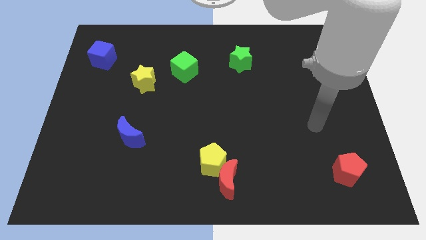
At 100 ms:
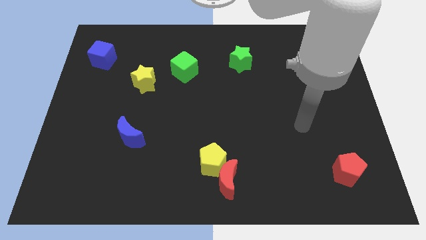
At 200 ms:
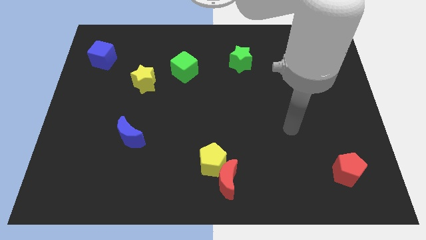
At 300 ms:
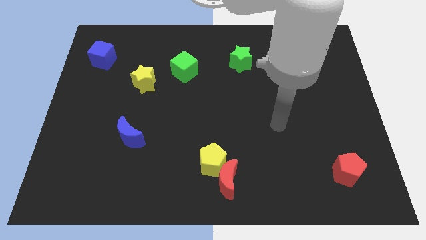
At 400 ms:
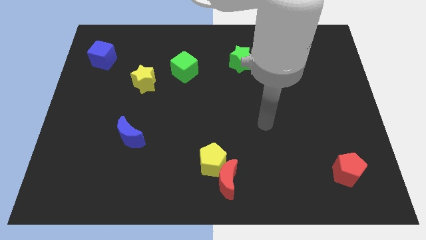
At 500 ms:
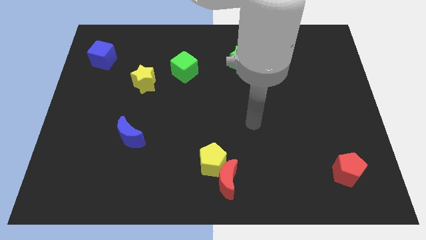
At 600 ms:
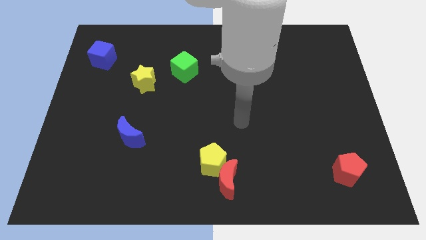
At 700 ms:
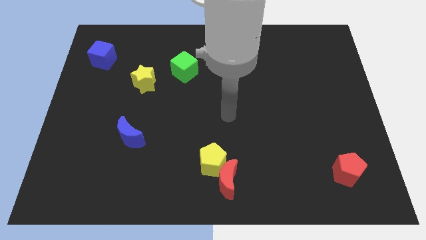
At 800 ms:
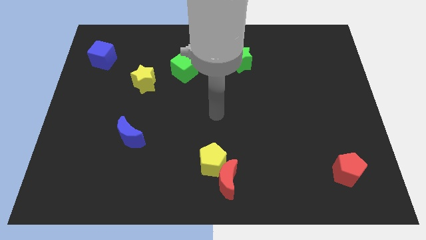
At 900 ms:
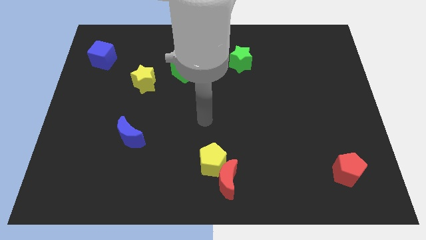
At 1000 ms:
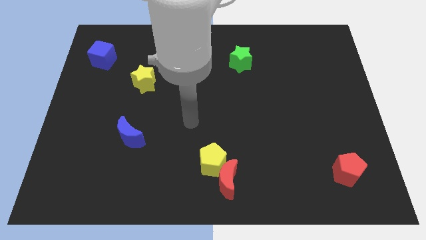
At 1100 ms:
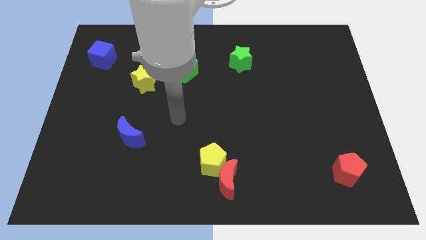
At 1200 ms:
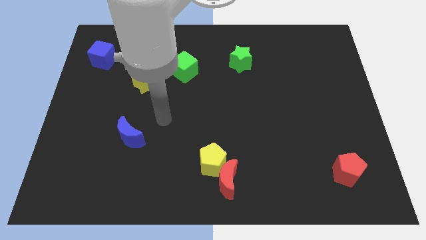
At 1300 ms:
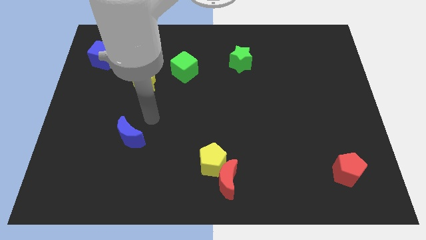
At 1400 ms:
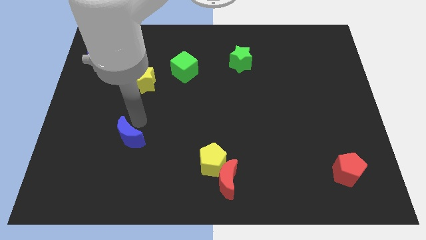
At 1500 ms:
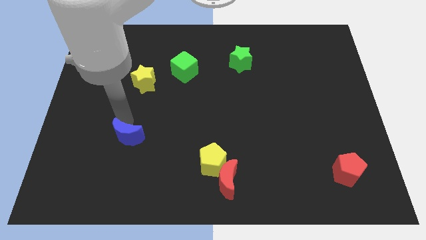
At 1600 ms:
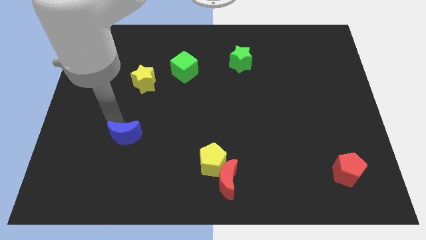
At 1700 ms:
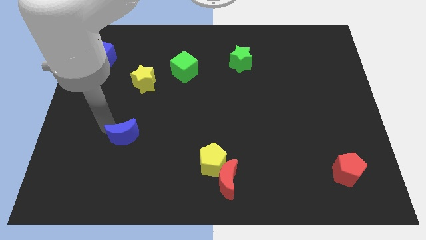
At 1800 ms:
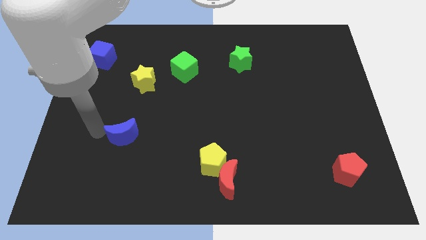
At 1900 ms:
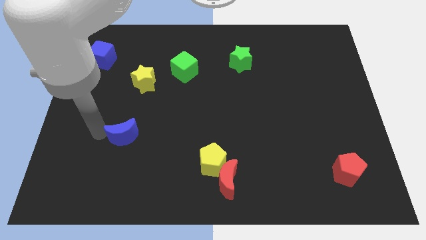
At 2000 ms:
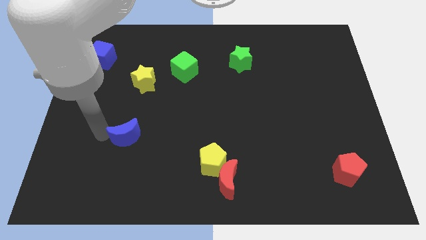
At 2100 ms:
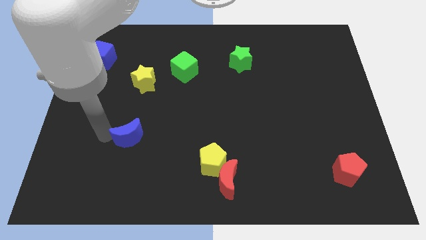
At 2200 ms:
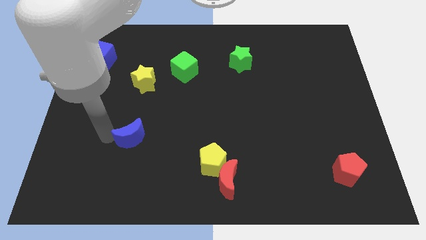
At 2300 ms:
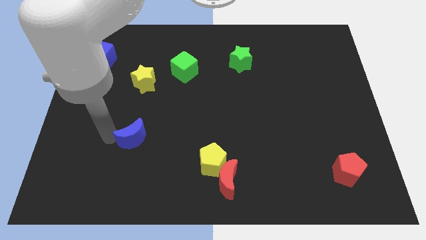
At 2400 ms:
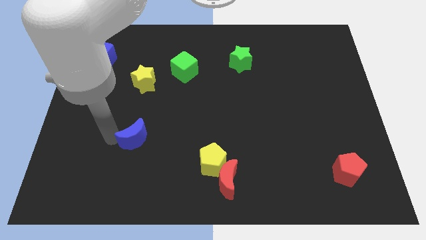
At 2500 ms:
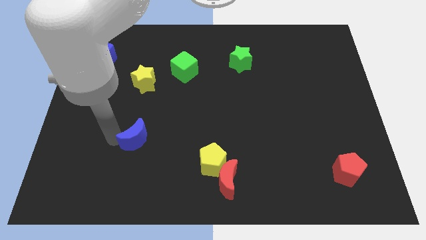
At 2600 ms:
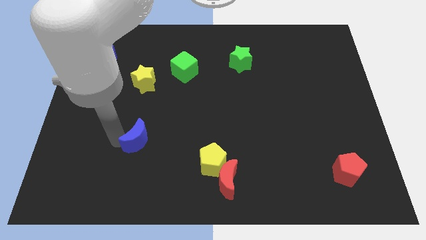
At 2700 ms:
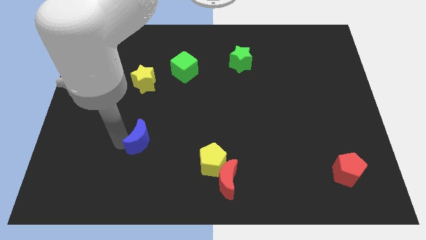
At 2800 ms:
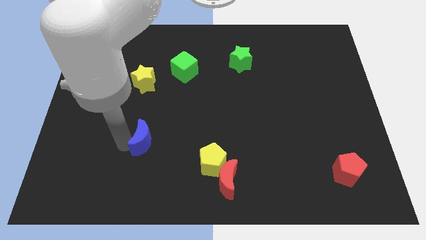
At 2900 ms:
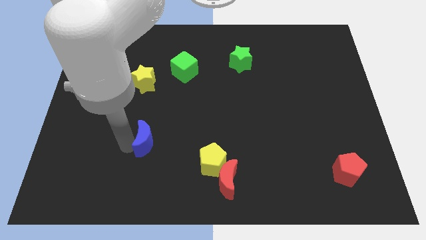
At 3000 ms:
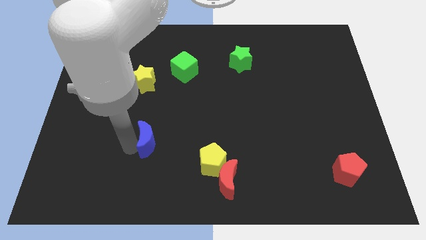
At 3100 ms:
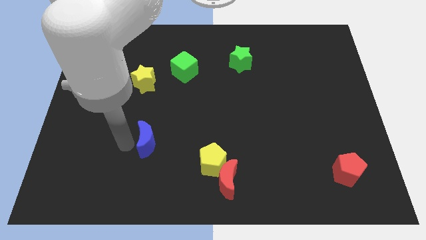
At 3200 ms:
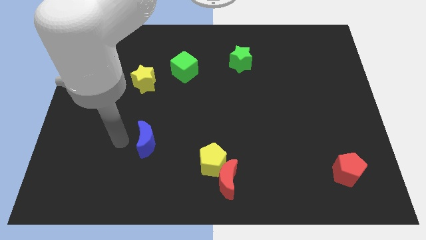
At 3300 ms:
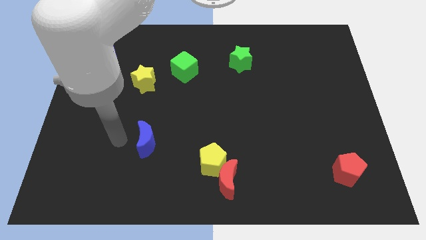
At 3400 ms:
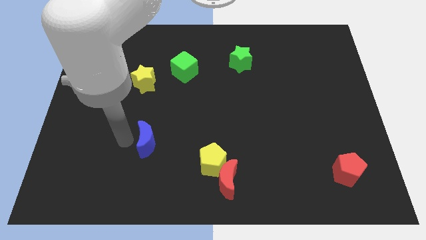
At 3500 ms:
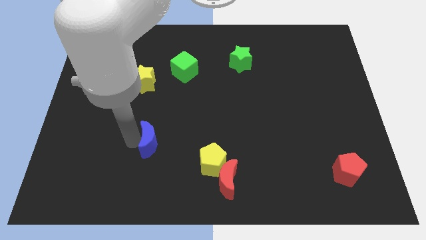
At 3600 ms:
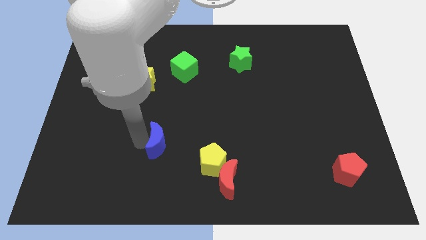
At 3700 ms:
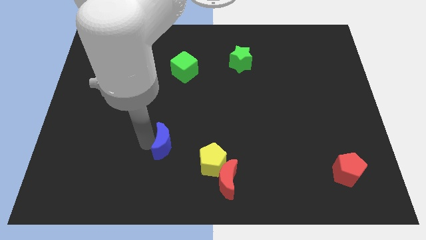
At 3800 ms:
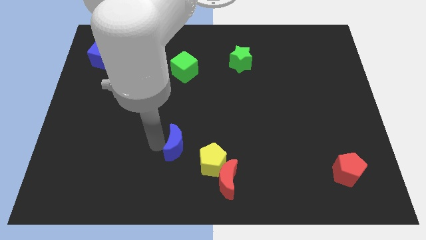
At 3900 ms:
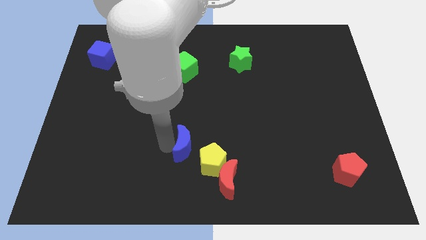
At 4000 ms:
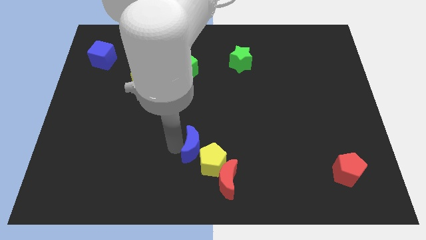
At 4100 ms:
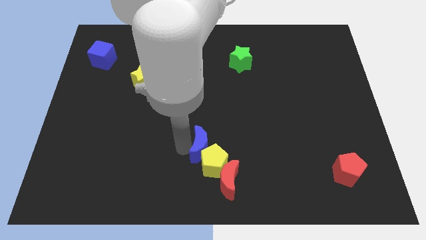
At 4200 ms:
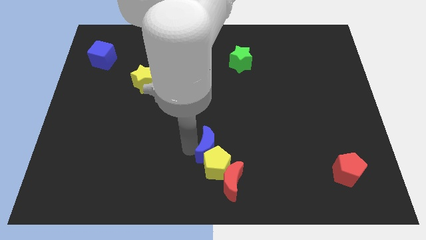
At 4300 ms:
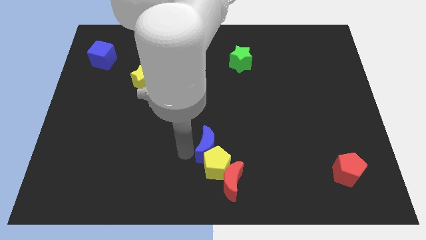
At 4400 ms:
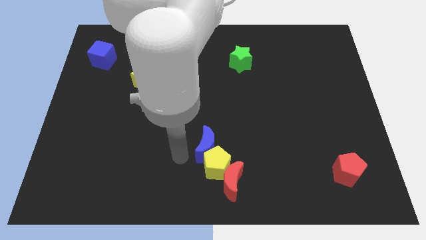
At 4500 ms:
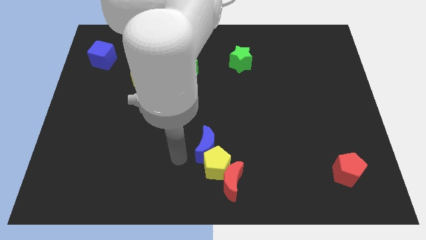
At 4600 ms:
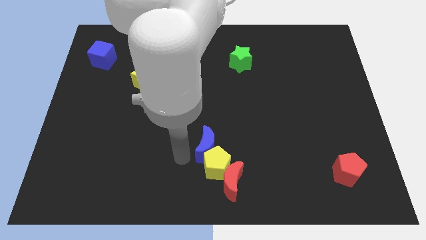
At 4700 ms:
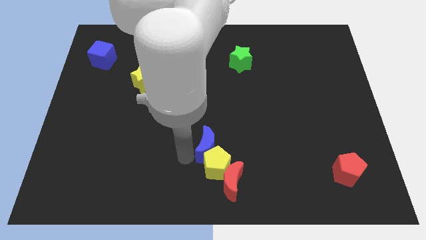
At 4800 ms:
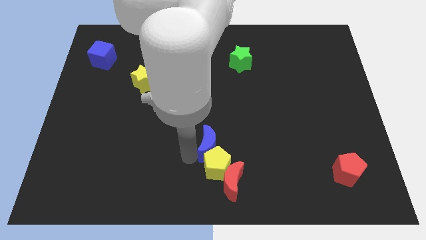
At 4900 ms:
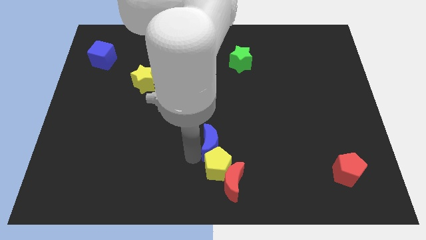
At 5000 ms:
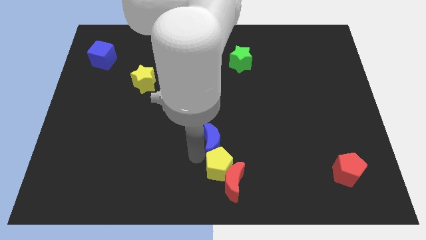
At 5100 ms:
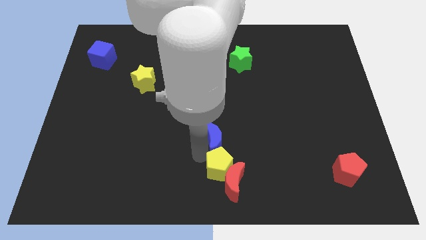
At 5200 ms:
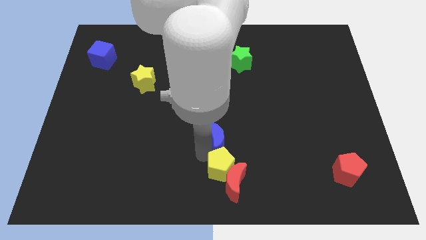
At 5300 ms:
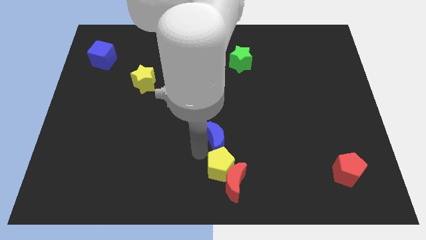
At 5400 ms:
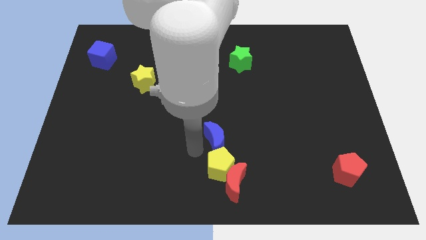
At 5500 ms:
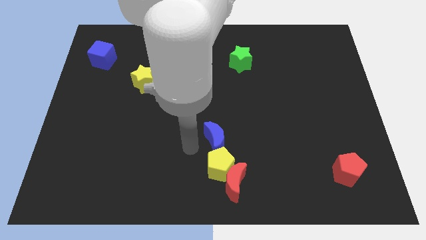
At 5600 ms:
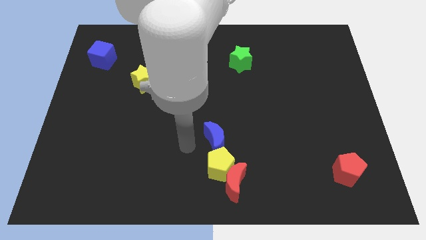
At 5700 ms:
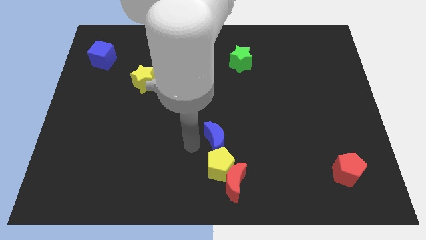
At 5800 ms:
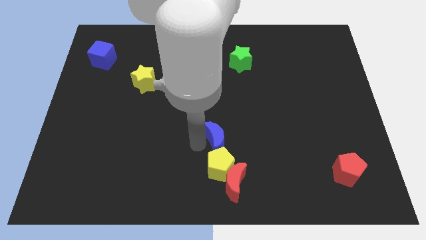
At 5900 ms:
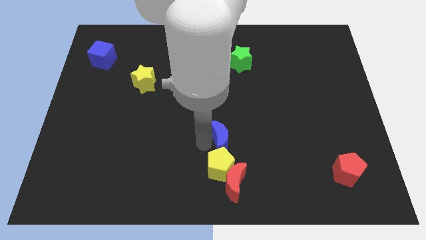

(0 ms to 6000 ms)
move the blue moon to the right

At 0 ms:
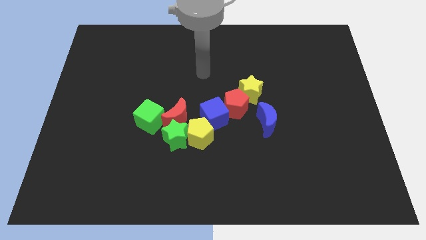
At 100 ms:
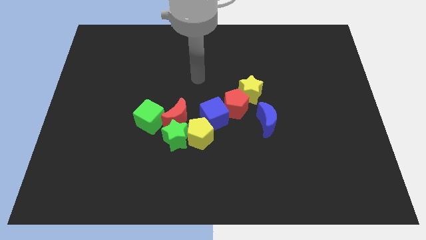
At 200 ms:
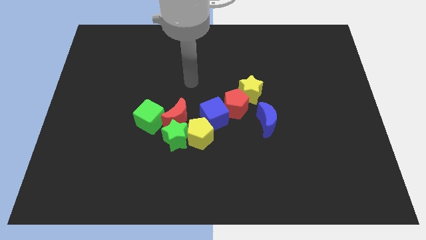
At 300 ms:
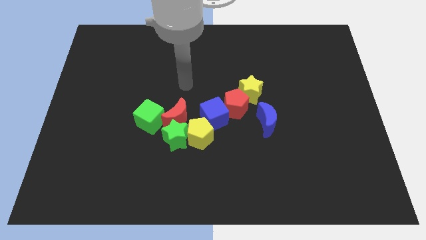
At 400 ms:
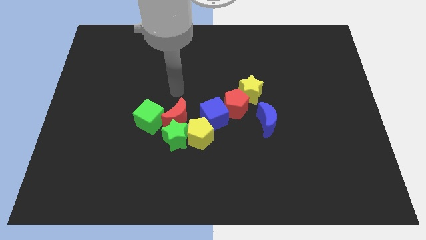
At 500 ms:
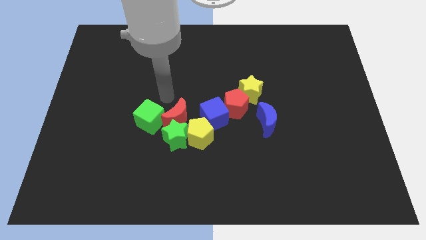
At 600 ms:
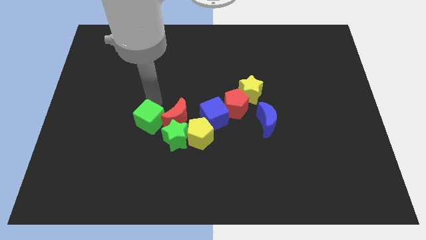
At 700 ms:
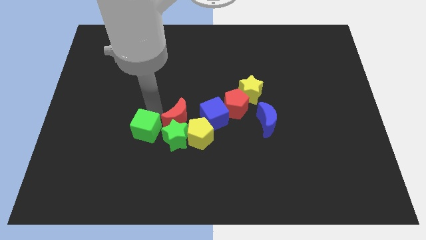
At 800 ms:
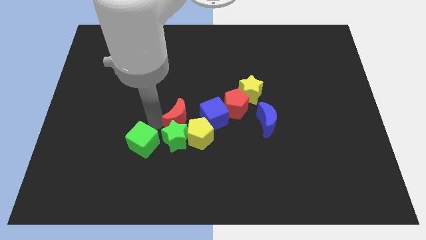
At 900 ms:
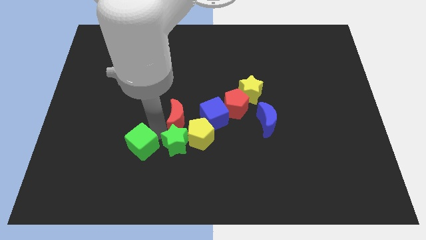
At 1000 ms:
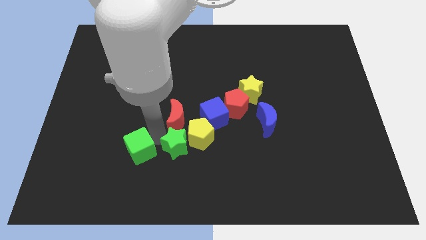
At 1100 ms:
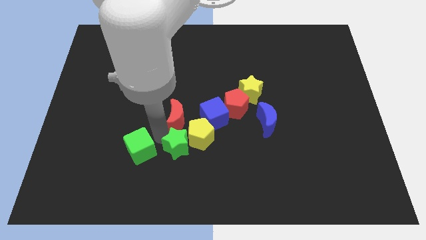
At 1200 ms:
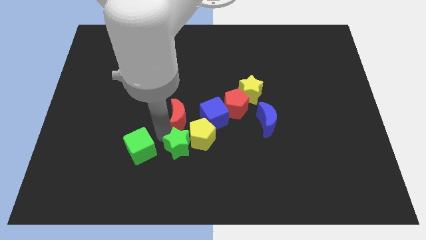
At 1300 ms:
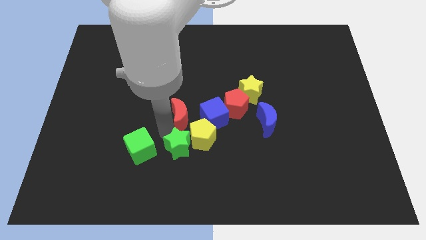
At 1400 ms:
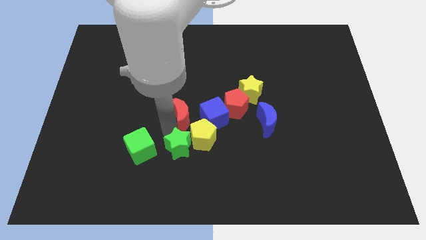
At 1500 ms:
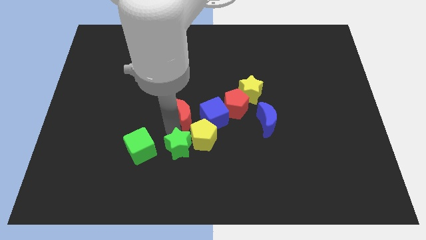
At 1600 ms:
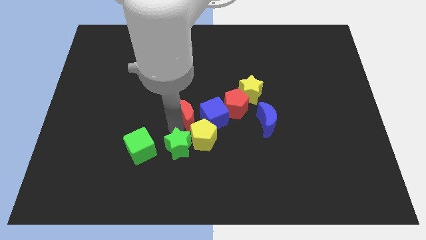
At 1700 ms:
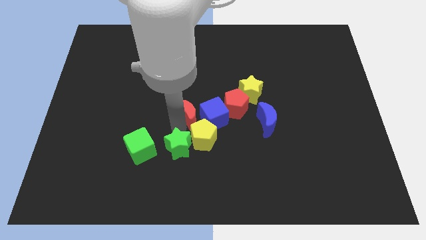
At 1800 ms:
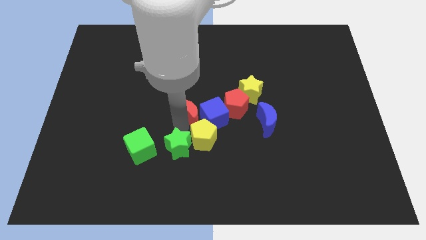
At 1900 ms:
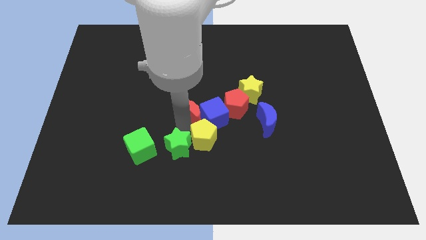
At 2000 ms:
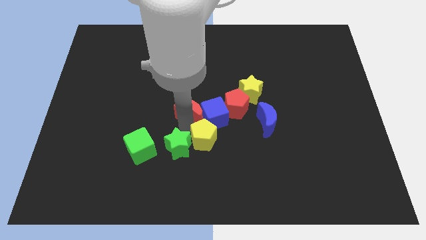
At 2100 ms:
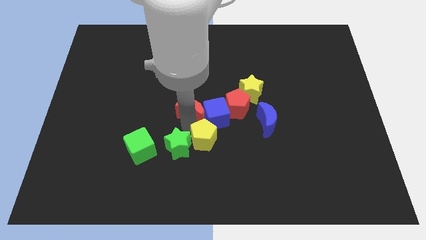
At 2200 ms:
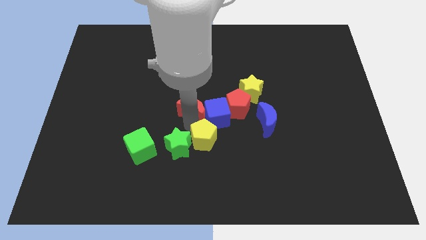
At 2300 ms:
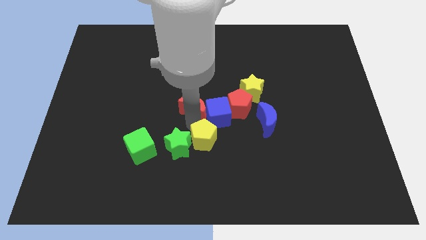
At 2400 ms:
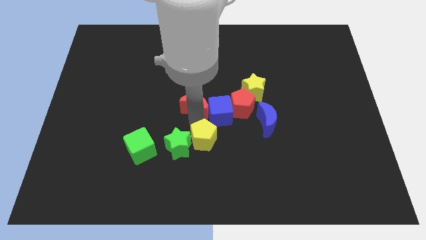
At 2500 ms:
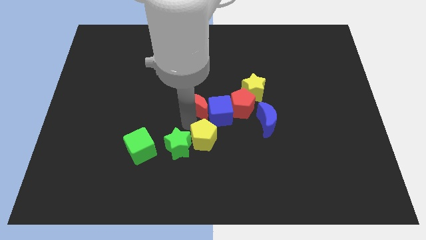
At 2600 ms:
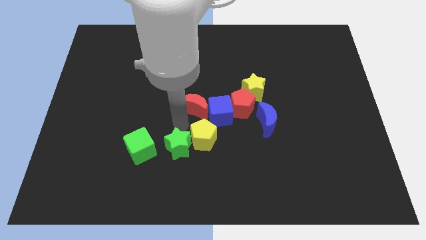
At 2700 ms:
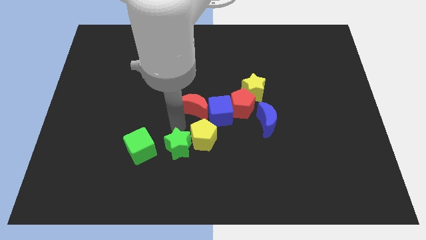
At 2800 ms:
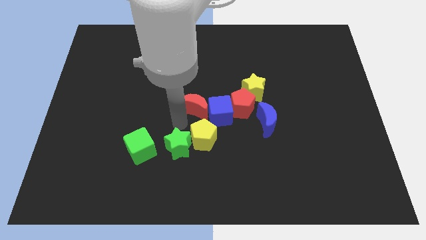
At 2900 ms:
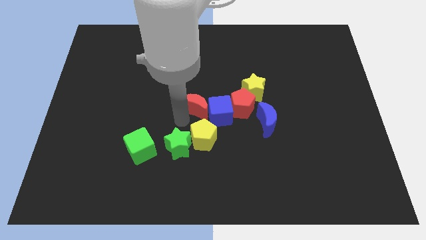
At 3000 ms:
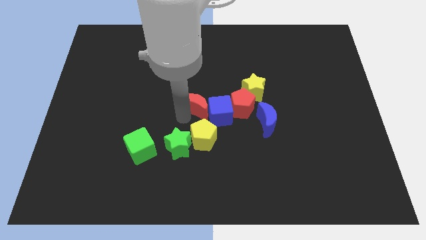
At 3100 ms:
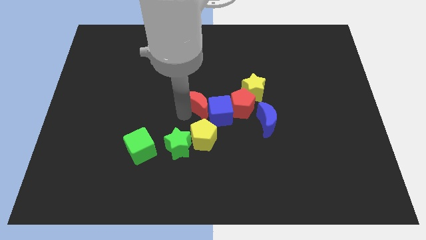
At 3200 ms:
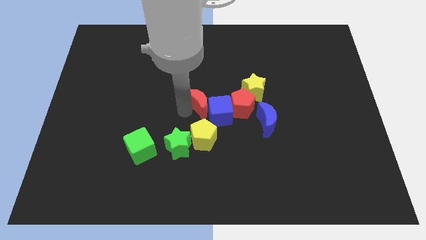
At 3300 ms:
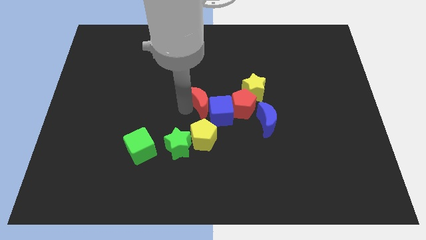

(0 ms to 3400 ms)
push the red moon up and right diagonally a bit
